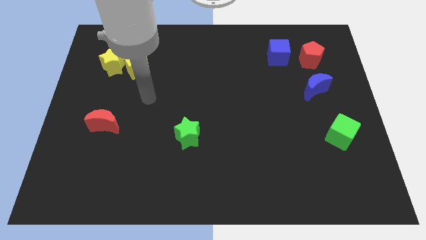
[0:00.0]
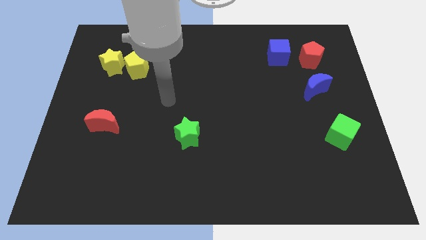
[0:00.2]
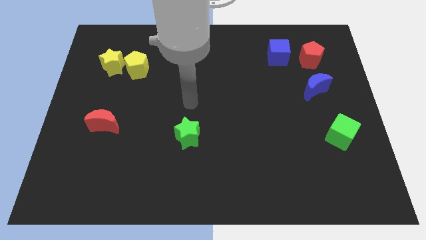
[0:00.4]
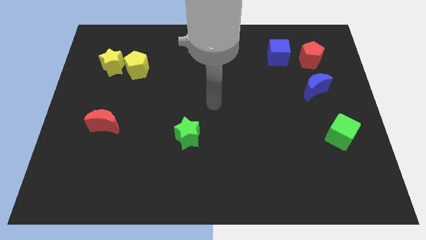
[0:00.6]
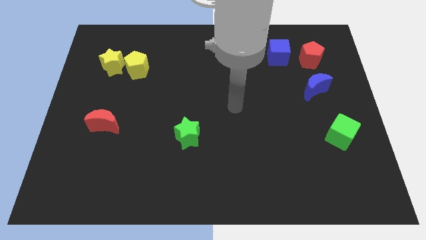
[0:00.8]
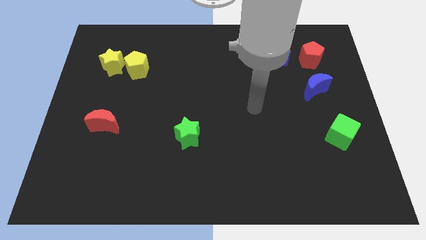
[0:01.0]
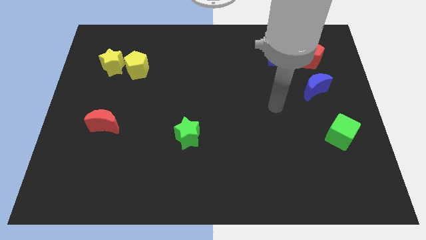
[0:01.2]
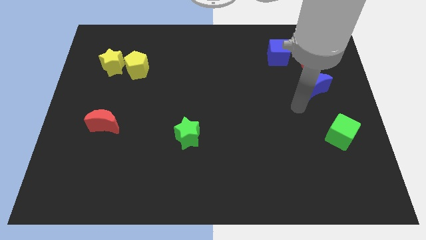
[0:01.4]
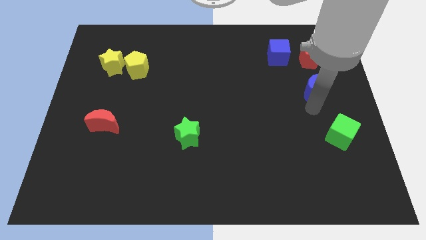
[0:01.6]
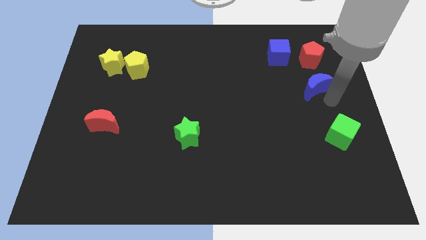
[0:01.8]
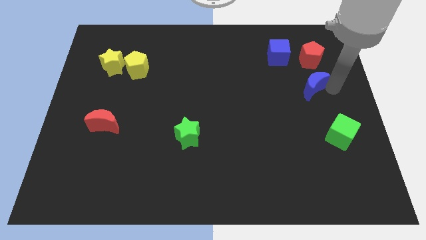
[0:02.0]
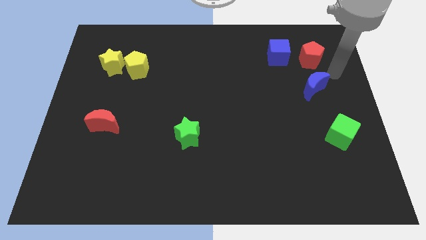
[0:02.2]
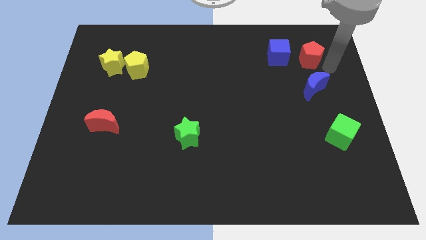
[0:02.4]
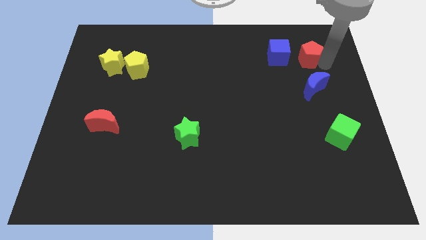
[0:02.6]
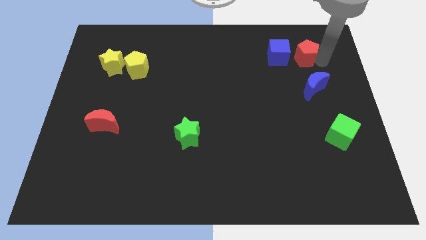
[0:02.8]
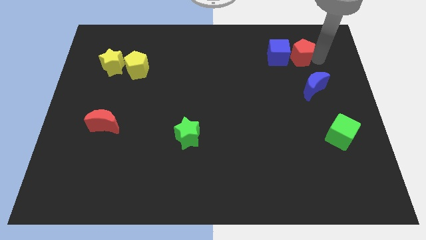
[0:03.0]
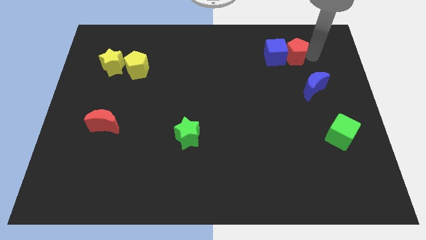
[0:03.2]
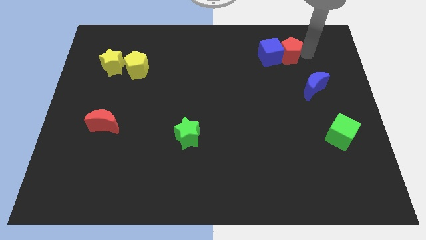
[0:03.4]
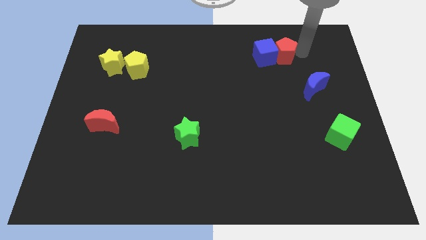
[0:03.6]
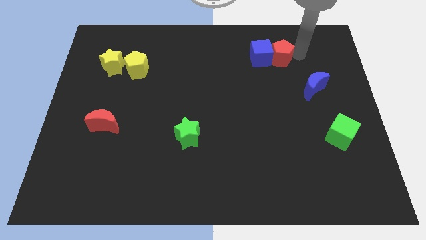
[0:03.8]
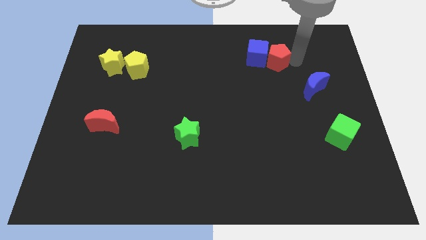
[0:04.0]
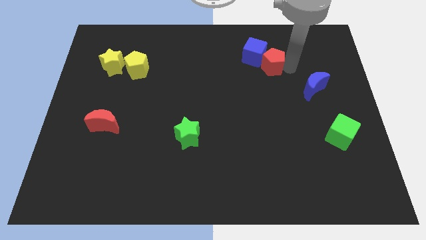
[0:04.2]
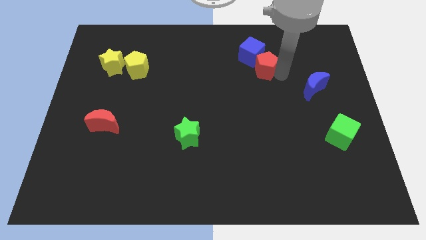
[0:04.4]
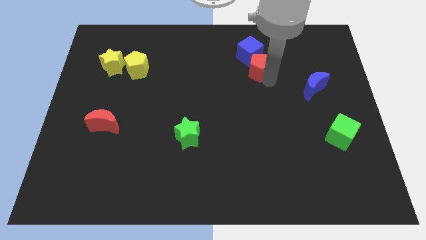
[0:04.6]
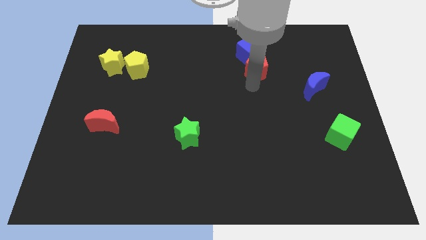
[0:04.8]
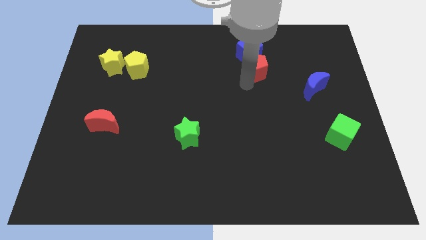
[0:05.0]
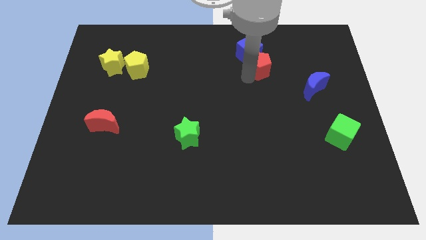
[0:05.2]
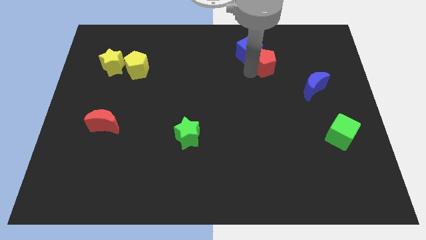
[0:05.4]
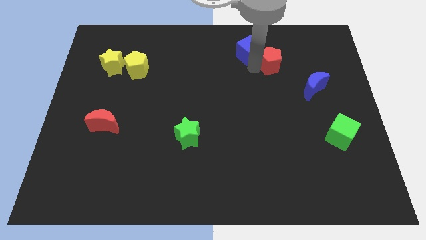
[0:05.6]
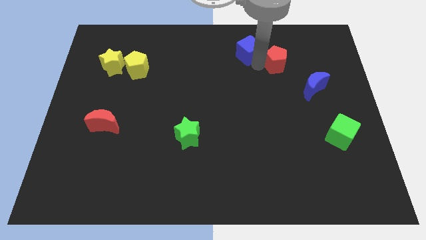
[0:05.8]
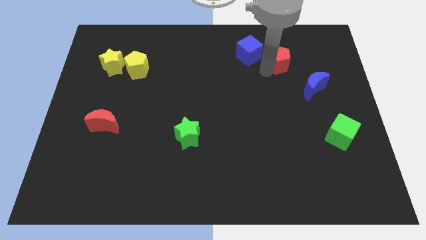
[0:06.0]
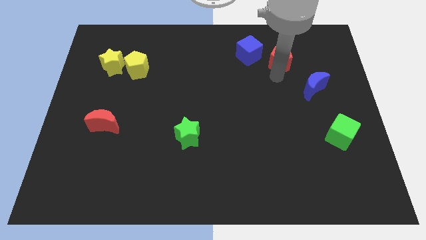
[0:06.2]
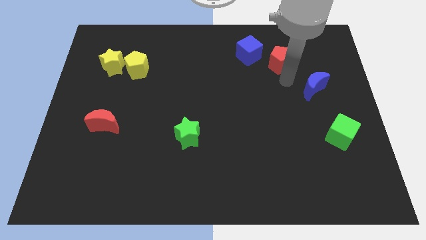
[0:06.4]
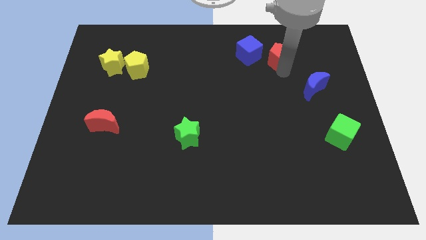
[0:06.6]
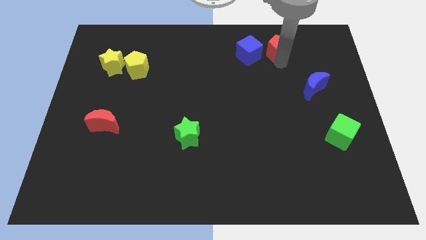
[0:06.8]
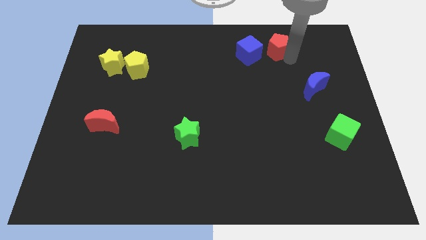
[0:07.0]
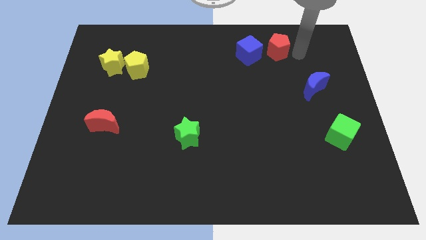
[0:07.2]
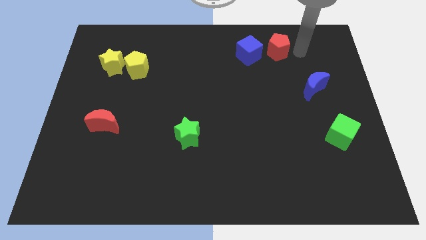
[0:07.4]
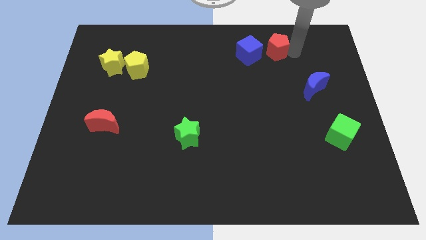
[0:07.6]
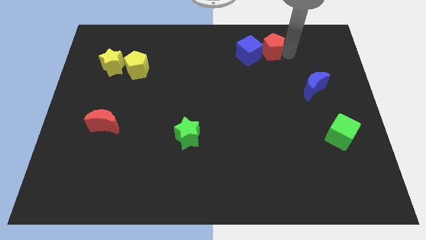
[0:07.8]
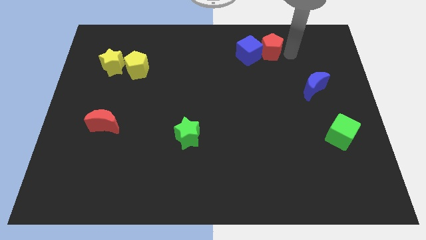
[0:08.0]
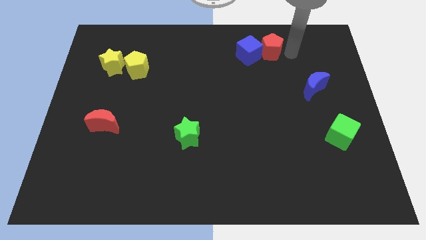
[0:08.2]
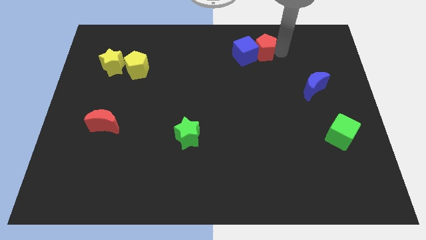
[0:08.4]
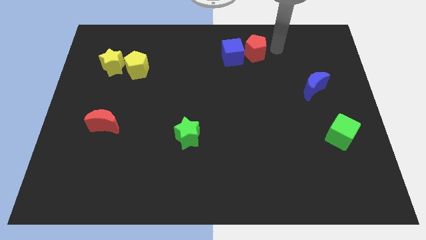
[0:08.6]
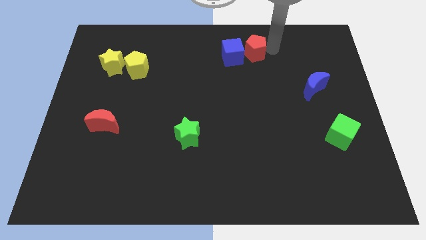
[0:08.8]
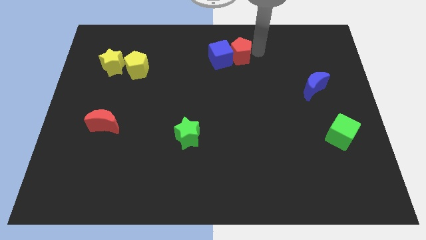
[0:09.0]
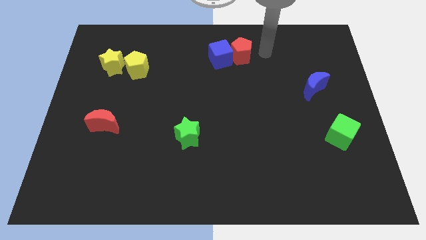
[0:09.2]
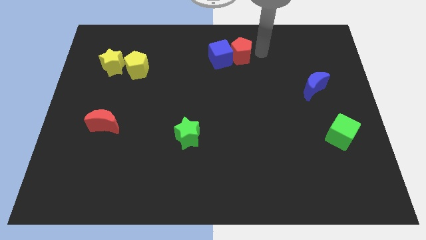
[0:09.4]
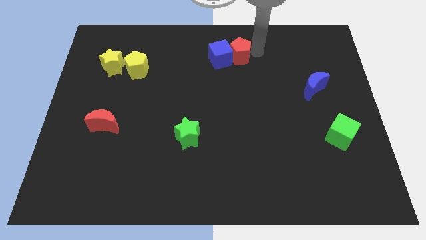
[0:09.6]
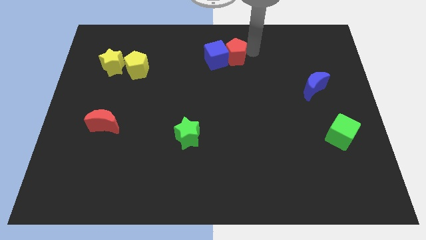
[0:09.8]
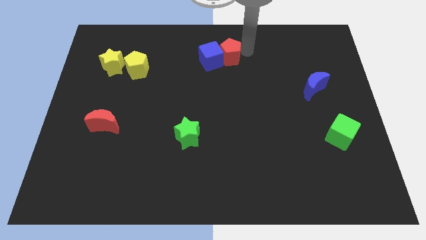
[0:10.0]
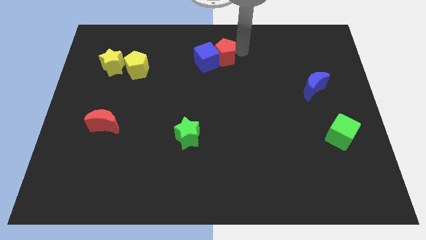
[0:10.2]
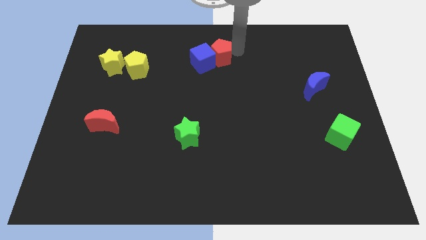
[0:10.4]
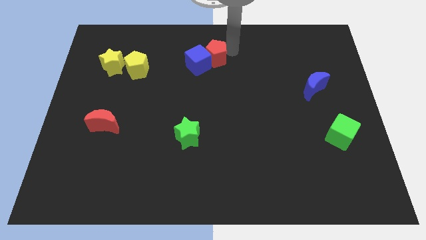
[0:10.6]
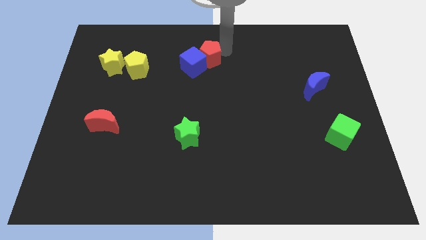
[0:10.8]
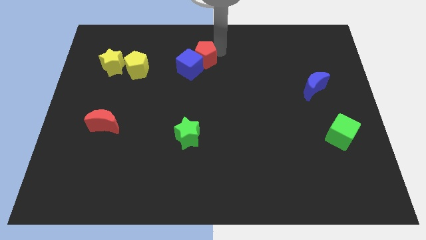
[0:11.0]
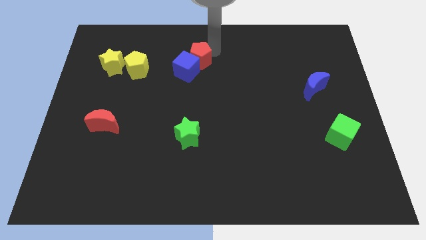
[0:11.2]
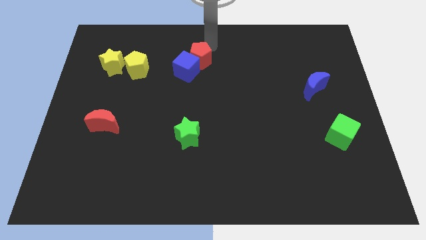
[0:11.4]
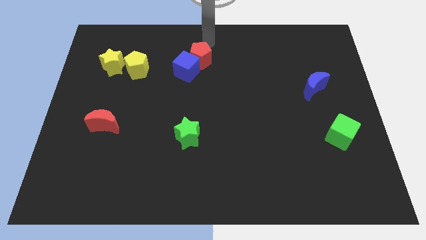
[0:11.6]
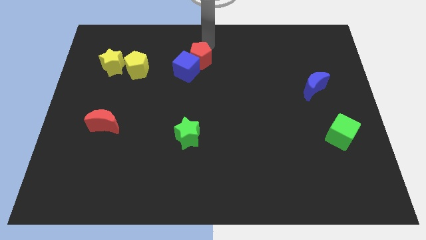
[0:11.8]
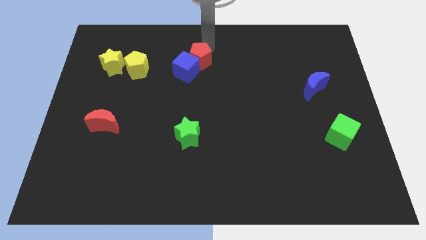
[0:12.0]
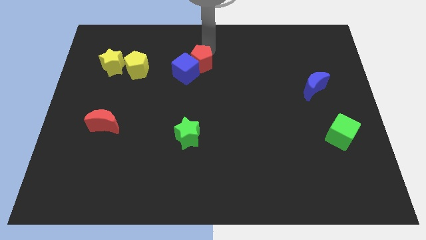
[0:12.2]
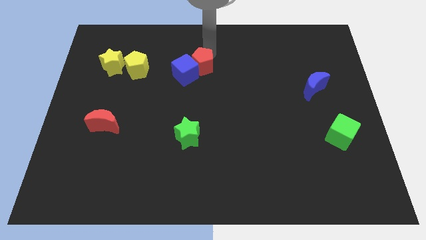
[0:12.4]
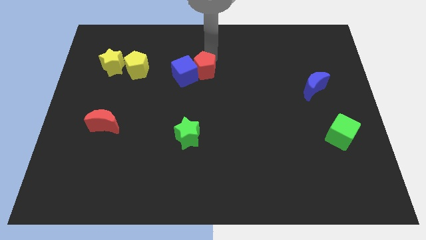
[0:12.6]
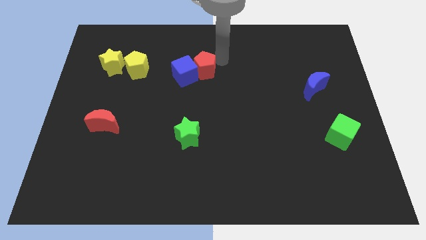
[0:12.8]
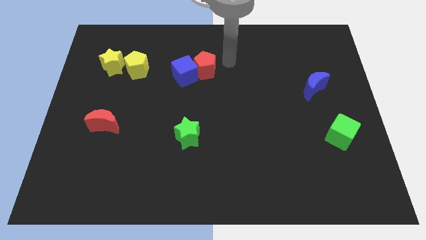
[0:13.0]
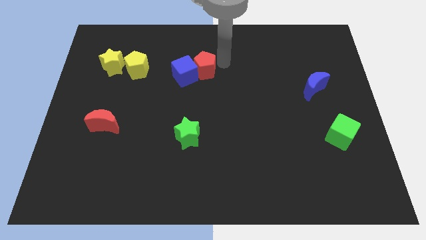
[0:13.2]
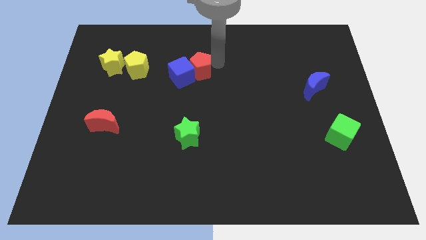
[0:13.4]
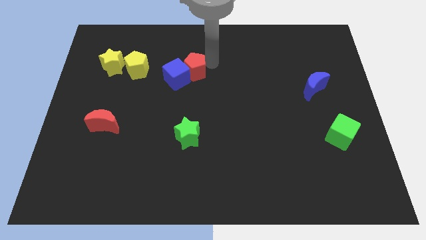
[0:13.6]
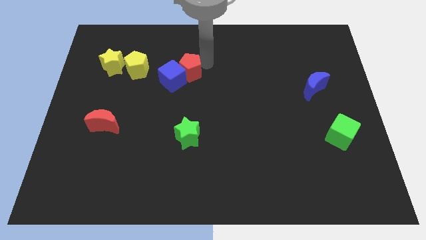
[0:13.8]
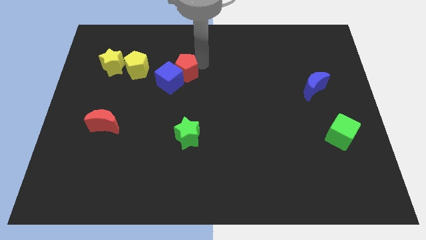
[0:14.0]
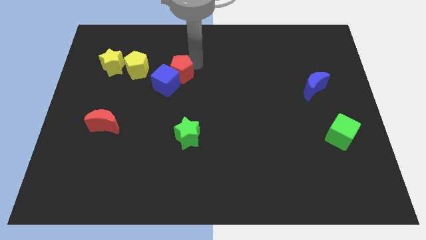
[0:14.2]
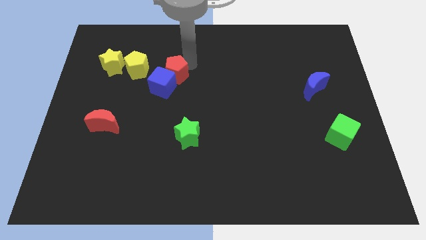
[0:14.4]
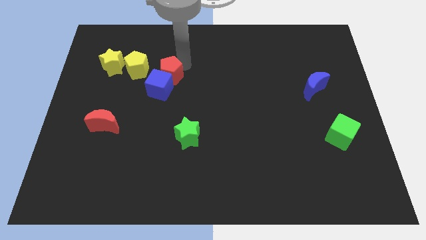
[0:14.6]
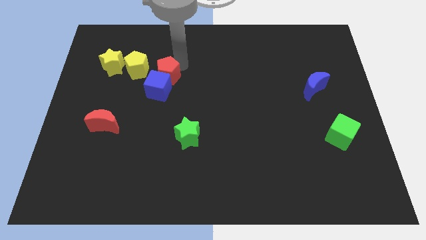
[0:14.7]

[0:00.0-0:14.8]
push the red pentagon to the bottom right of the yellow pentagon
